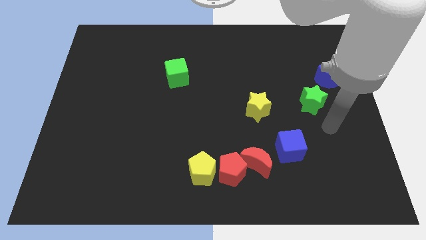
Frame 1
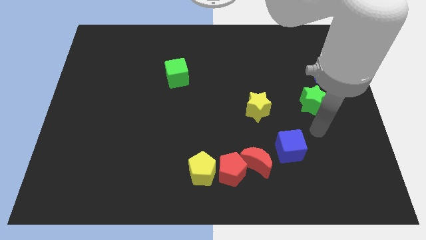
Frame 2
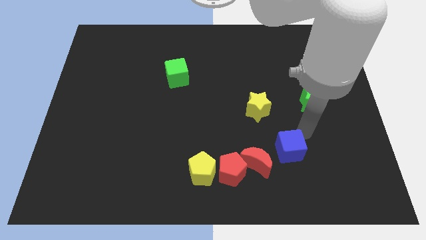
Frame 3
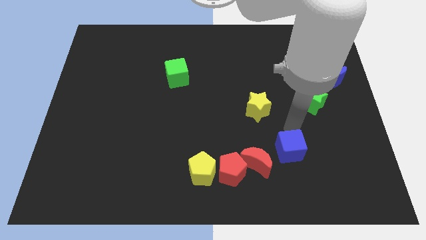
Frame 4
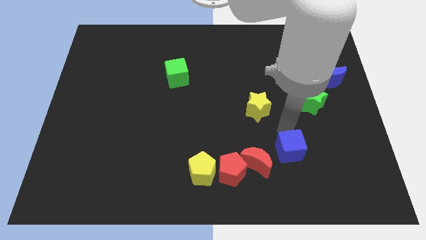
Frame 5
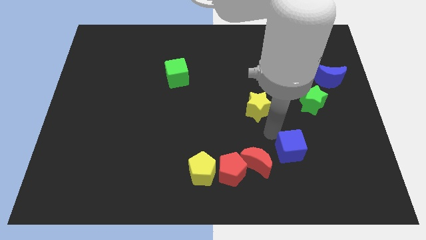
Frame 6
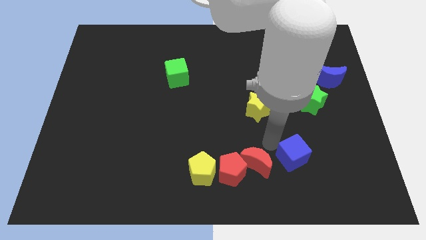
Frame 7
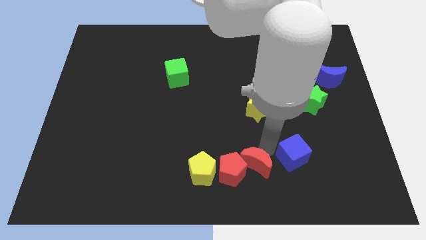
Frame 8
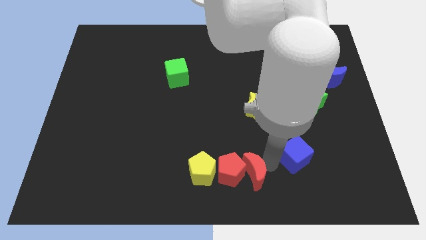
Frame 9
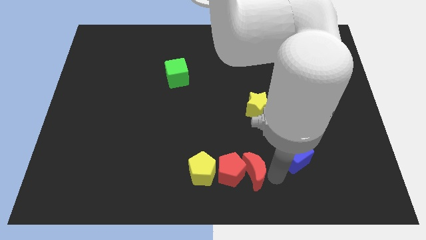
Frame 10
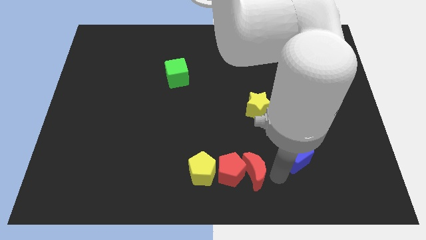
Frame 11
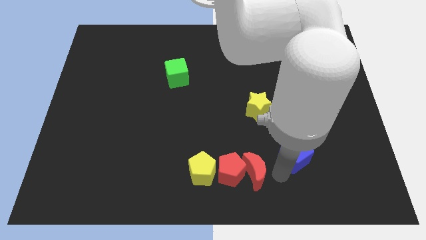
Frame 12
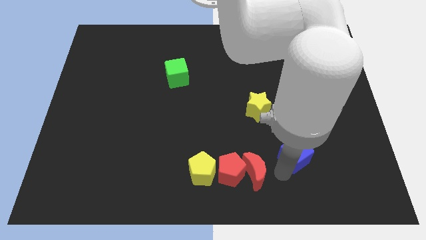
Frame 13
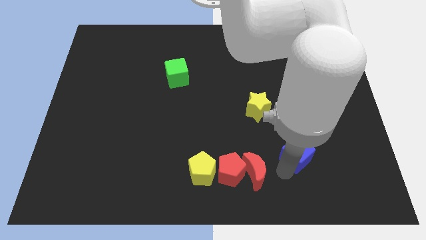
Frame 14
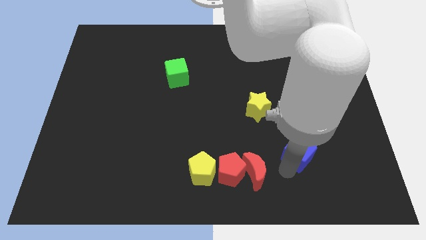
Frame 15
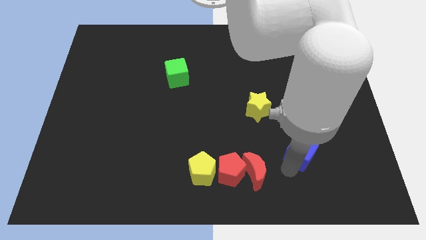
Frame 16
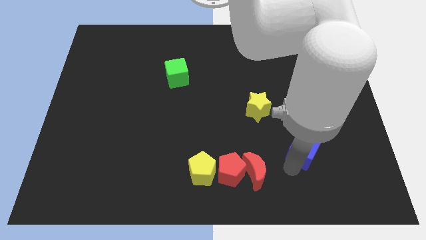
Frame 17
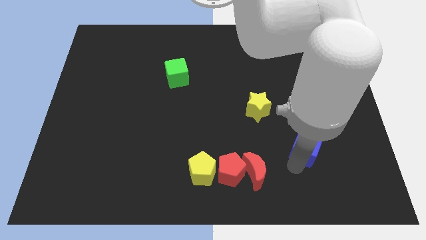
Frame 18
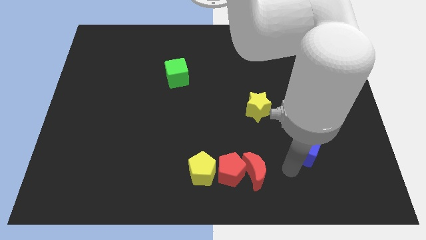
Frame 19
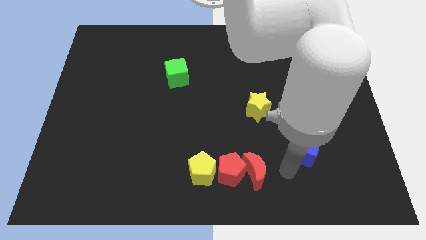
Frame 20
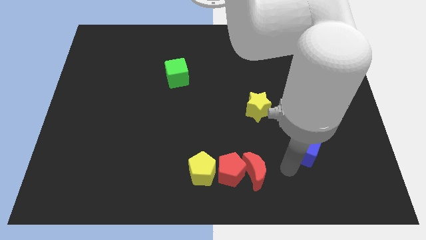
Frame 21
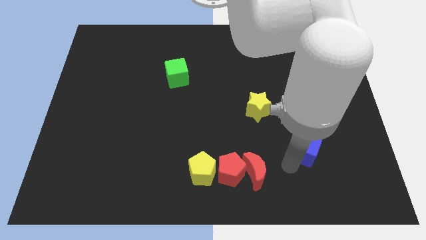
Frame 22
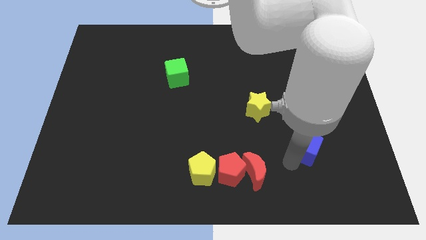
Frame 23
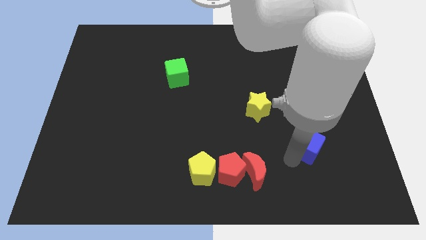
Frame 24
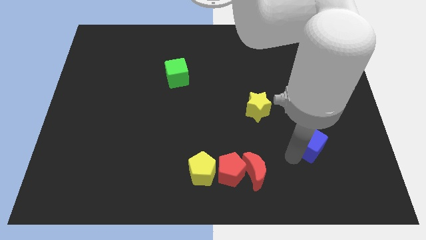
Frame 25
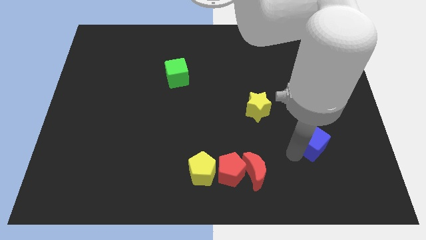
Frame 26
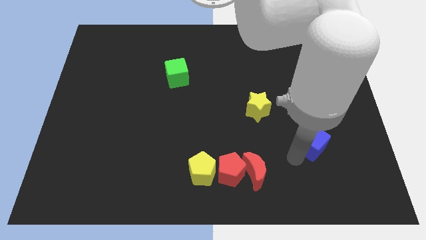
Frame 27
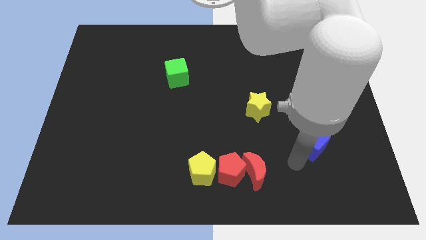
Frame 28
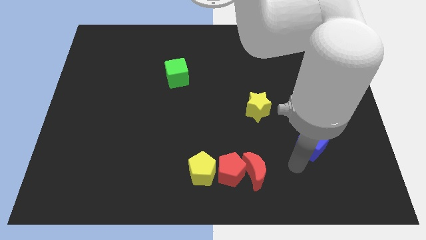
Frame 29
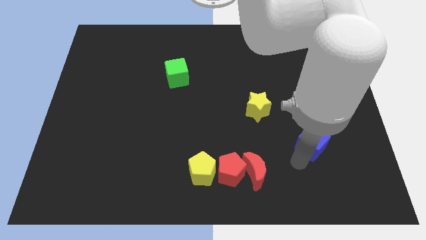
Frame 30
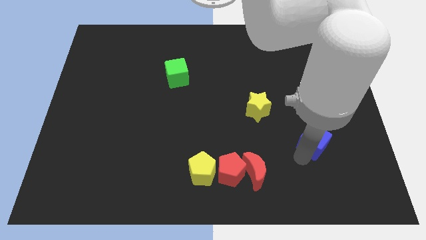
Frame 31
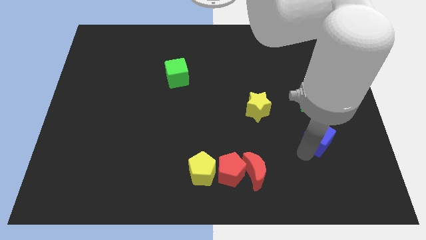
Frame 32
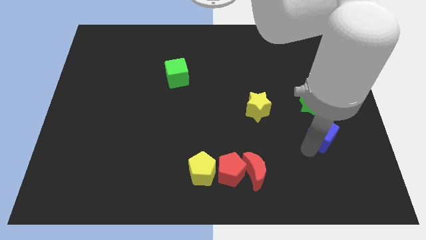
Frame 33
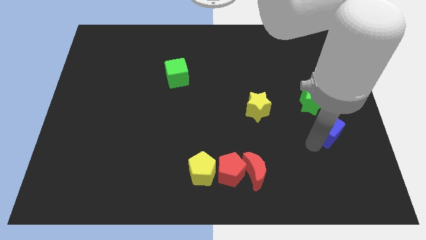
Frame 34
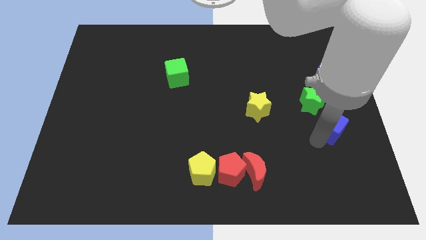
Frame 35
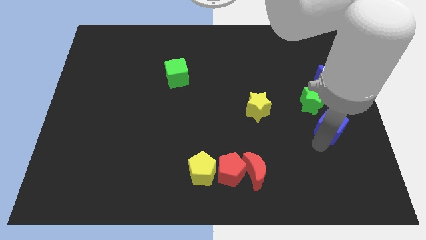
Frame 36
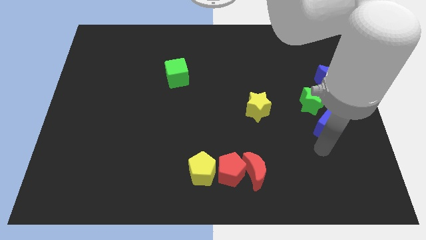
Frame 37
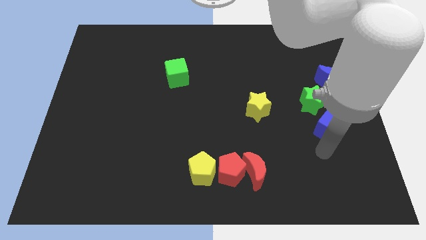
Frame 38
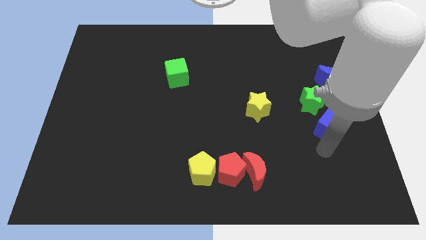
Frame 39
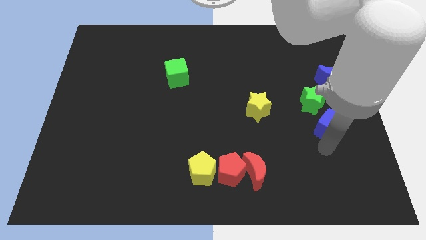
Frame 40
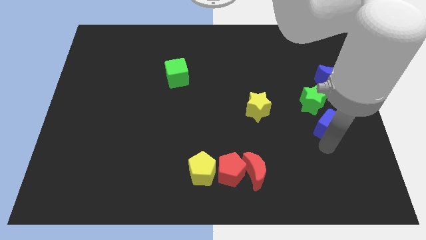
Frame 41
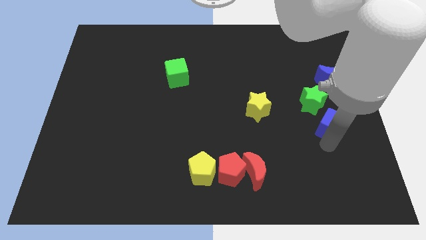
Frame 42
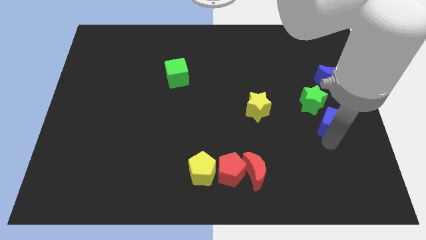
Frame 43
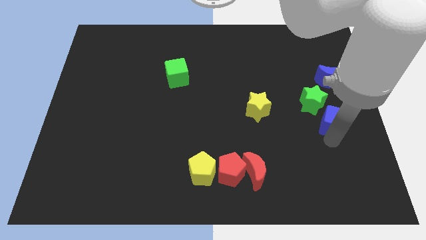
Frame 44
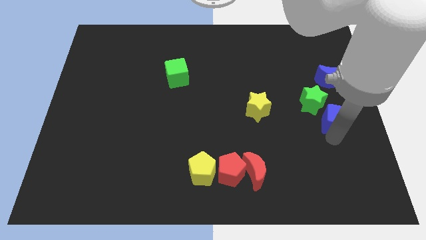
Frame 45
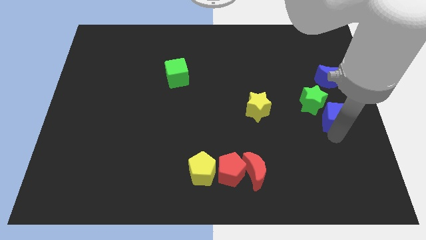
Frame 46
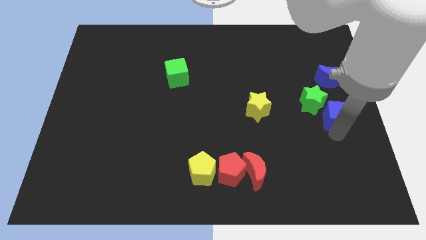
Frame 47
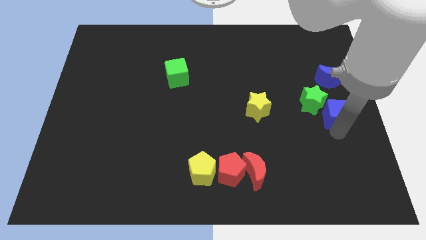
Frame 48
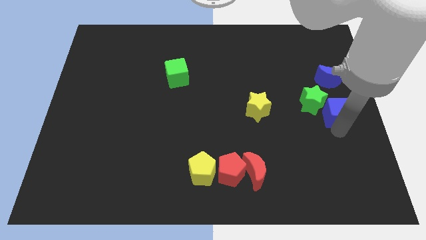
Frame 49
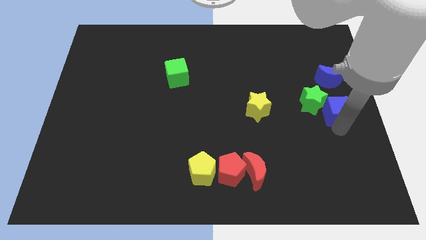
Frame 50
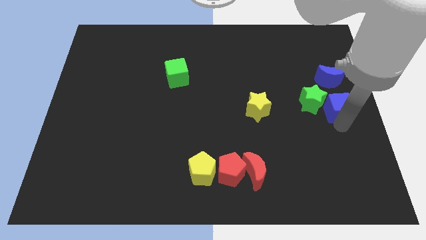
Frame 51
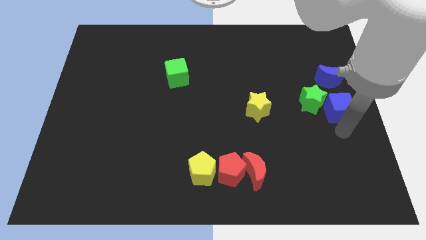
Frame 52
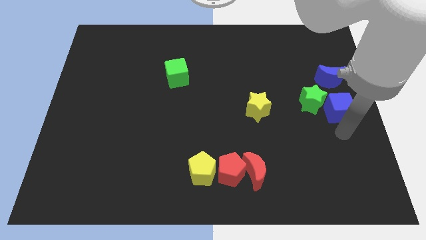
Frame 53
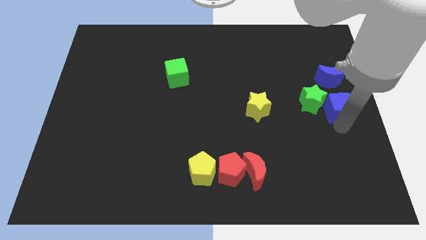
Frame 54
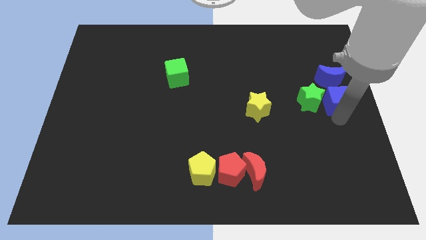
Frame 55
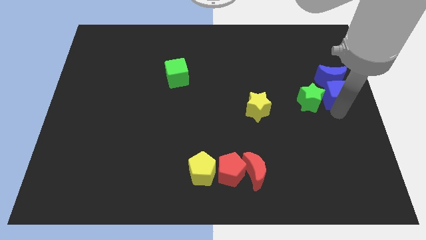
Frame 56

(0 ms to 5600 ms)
move the blue cube towards the blue moon

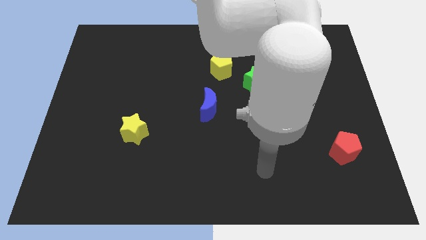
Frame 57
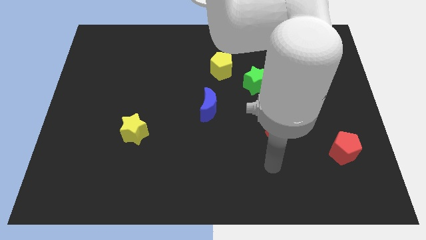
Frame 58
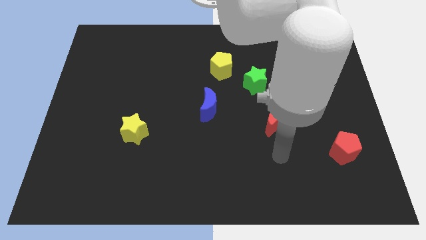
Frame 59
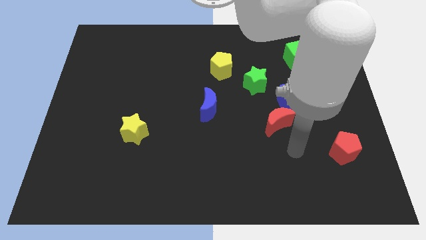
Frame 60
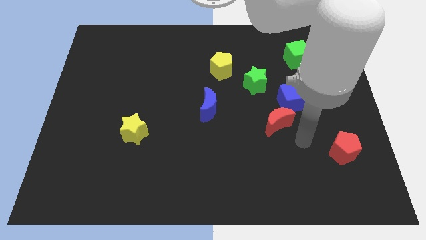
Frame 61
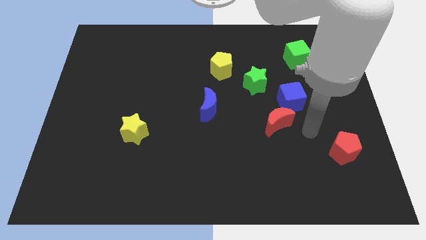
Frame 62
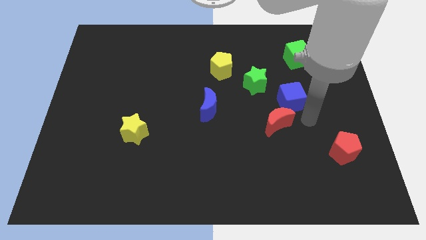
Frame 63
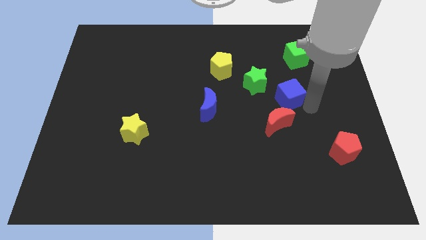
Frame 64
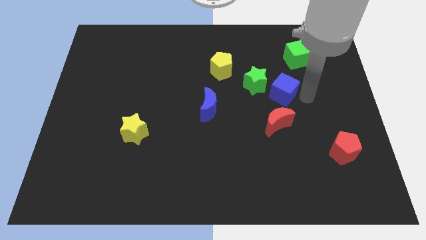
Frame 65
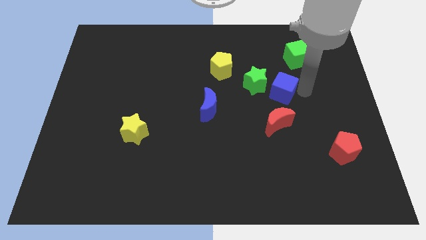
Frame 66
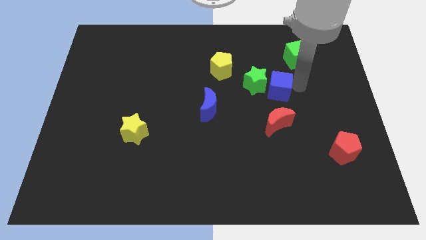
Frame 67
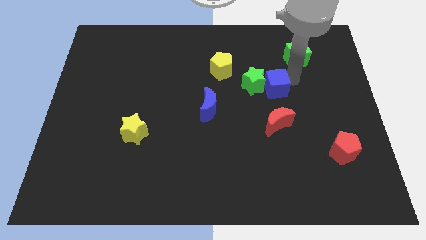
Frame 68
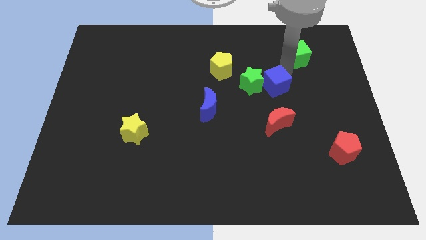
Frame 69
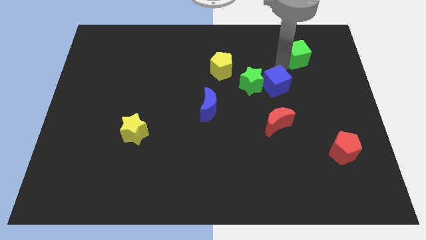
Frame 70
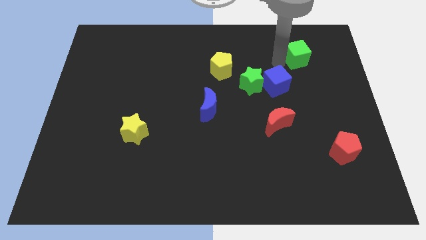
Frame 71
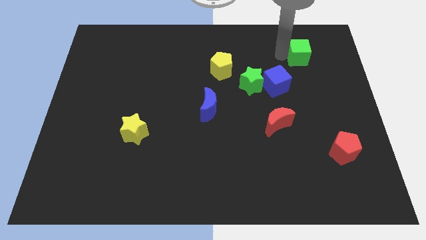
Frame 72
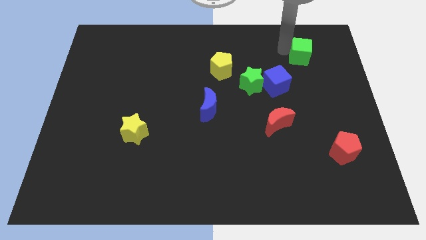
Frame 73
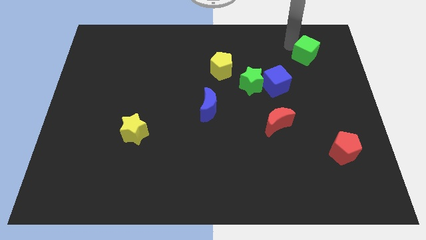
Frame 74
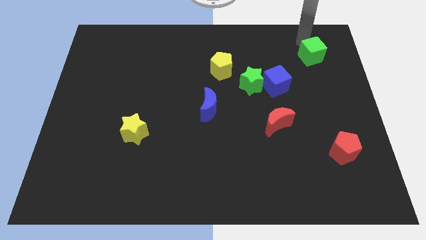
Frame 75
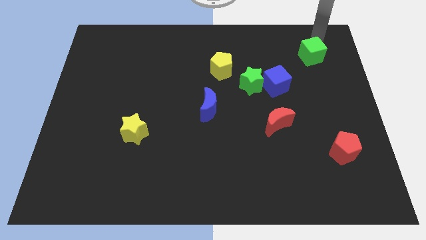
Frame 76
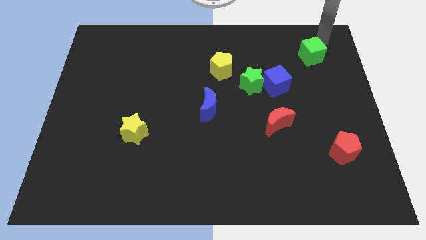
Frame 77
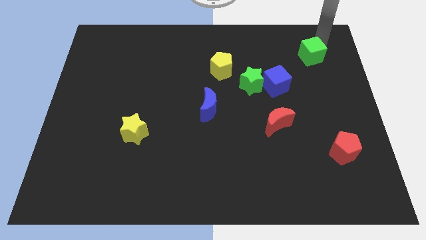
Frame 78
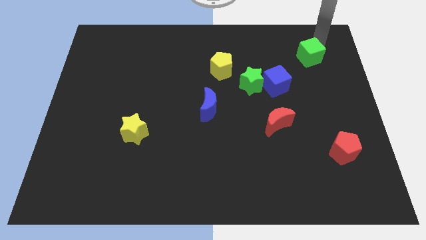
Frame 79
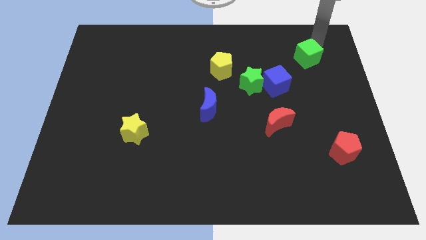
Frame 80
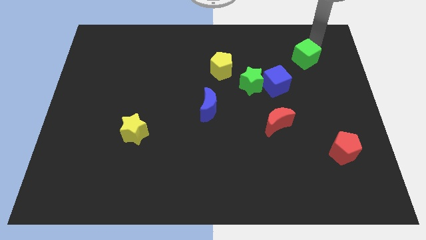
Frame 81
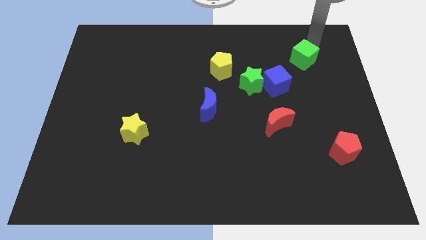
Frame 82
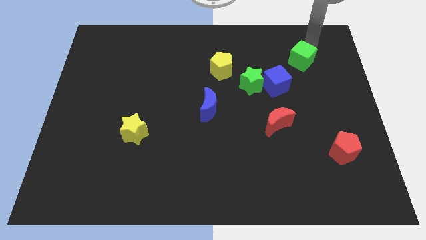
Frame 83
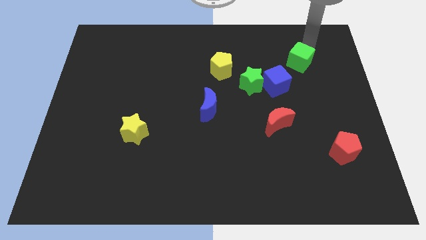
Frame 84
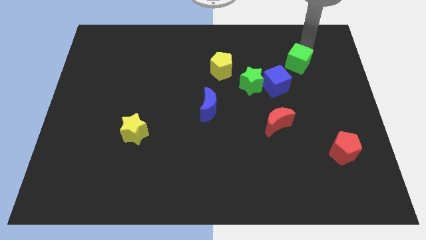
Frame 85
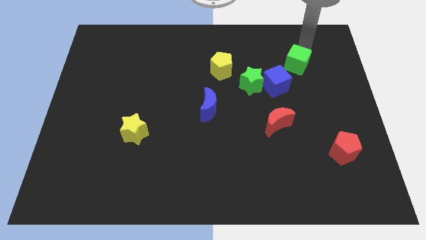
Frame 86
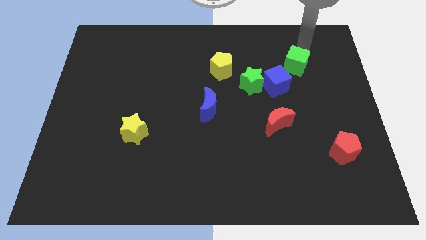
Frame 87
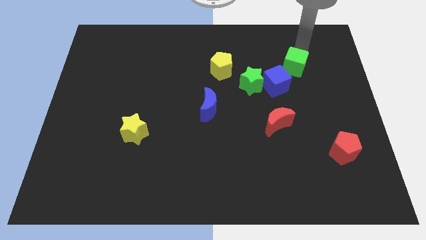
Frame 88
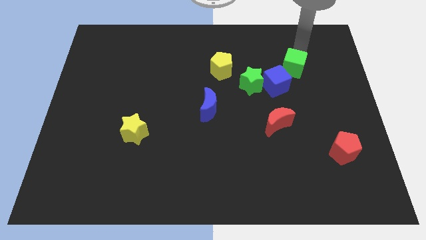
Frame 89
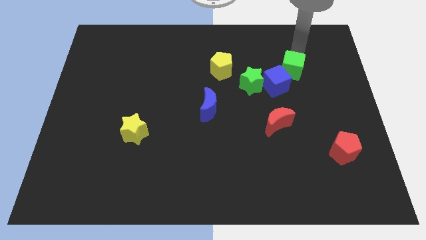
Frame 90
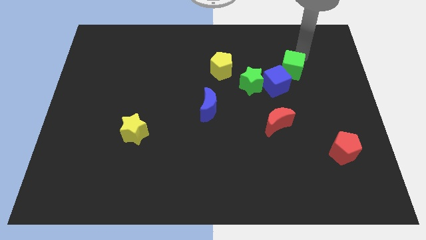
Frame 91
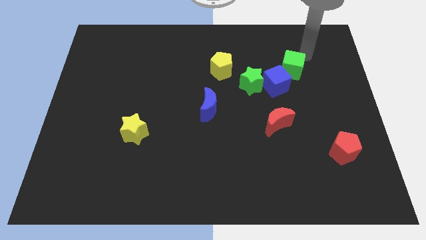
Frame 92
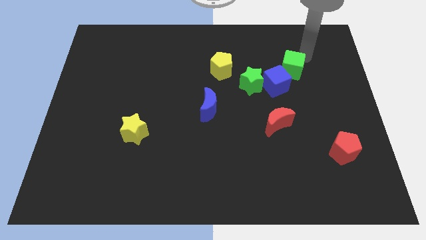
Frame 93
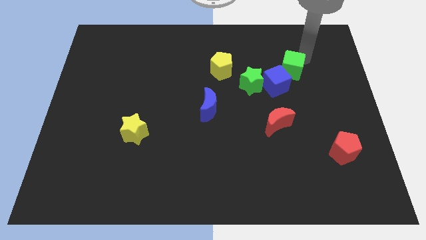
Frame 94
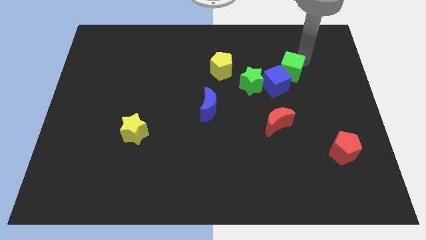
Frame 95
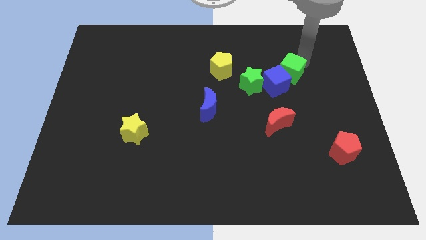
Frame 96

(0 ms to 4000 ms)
put the green cube close to the blue cube
